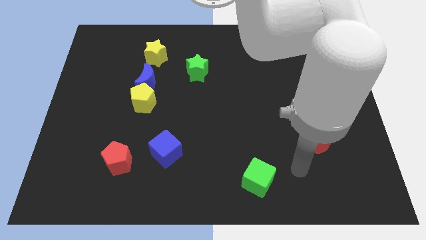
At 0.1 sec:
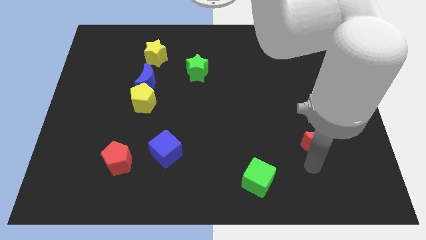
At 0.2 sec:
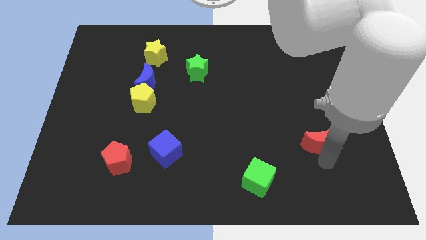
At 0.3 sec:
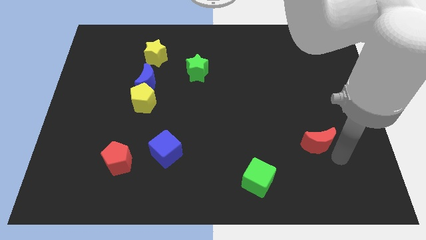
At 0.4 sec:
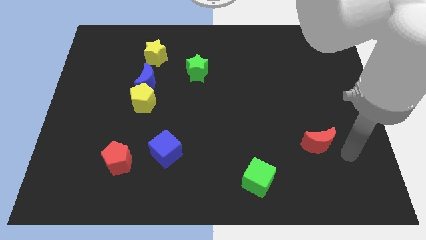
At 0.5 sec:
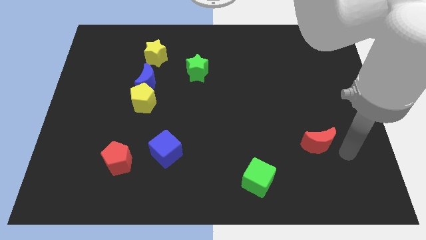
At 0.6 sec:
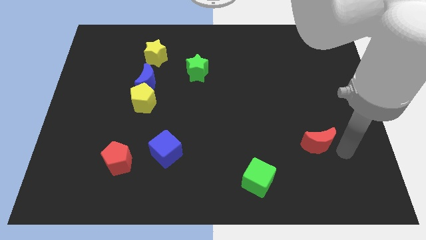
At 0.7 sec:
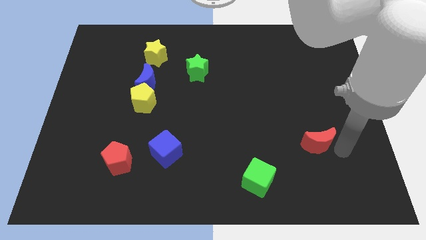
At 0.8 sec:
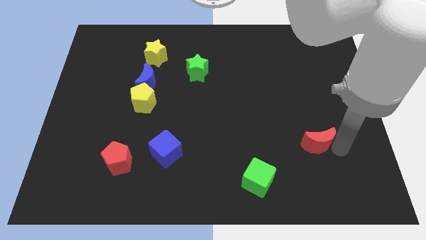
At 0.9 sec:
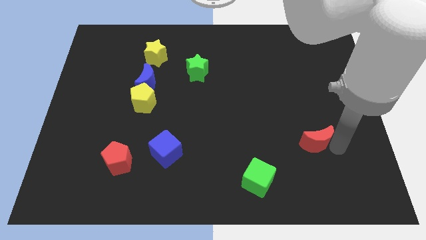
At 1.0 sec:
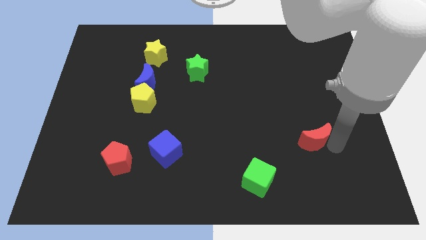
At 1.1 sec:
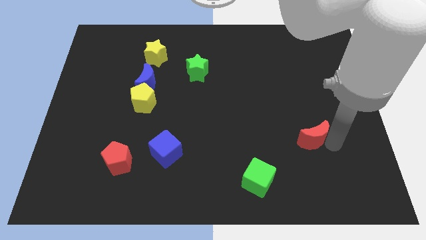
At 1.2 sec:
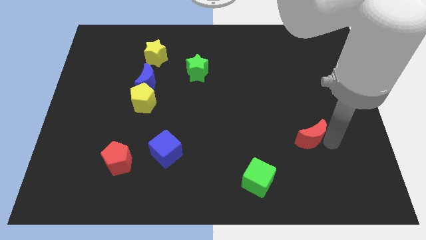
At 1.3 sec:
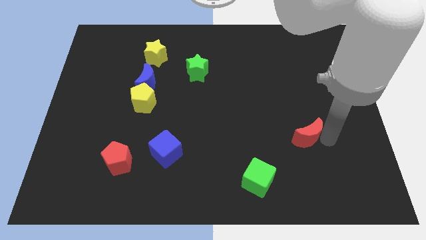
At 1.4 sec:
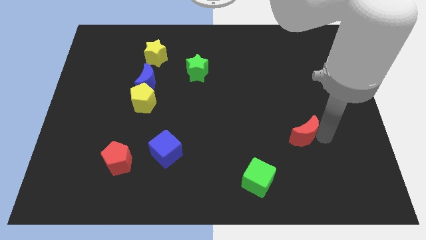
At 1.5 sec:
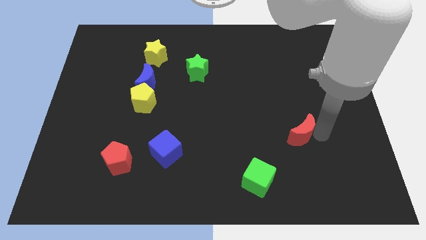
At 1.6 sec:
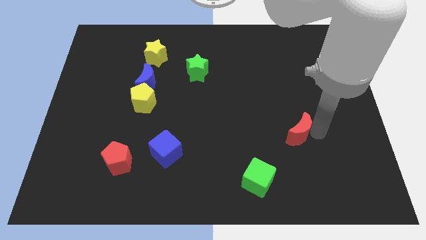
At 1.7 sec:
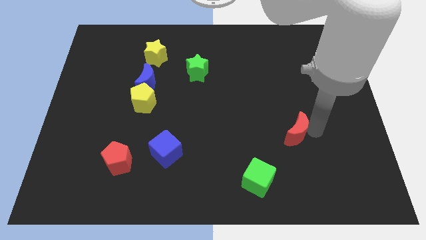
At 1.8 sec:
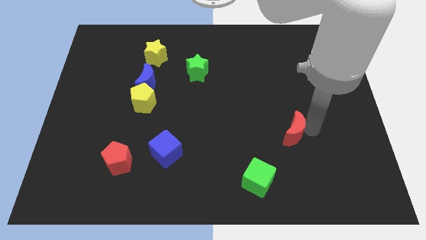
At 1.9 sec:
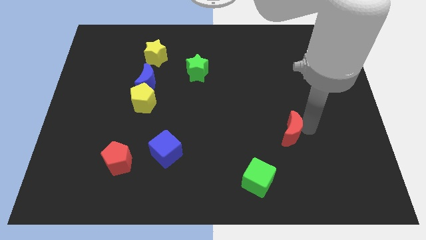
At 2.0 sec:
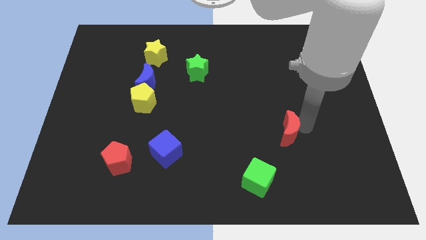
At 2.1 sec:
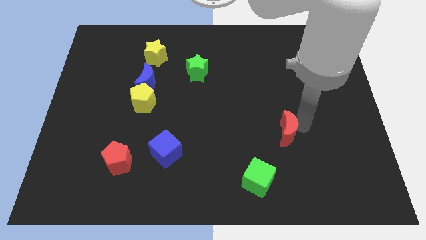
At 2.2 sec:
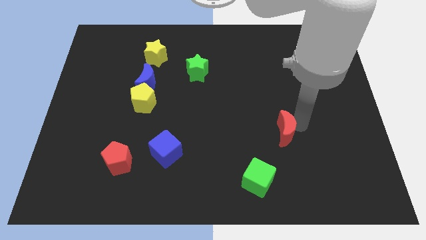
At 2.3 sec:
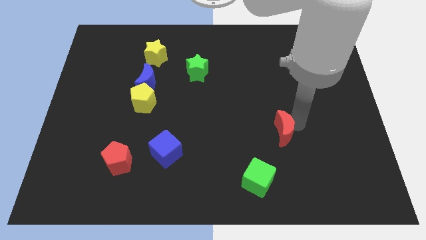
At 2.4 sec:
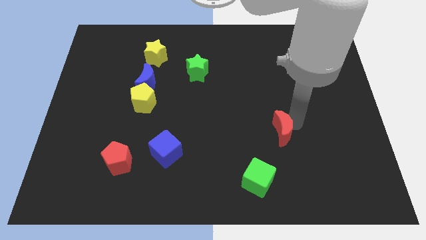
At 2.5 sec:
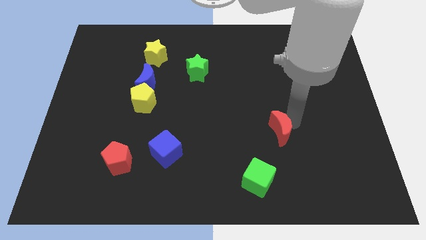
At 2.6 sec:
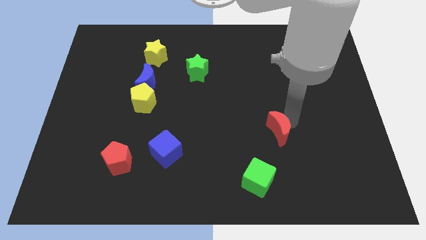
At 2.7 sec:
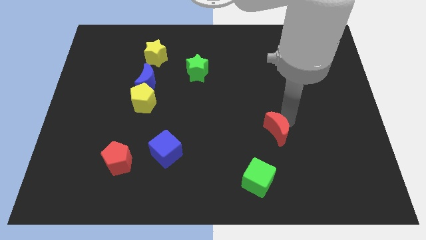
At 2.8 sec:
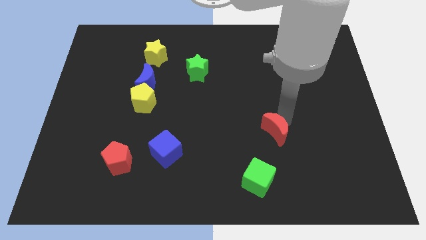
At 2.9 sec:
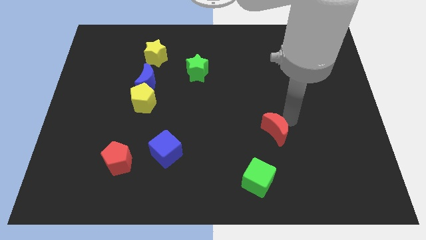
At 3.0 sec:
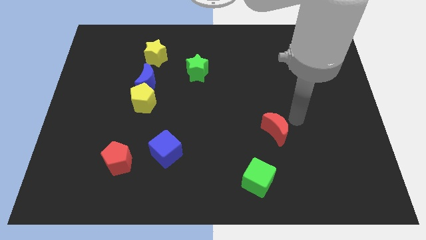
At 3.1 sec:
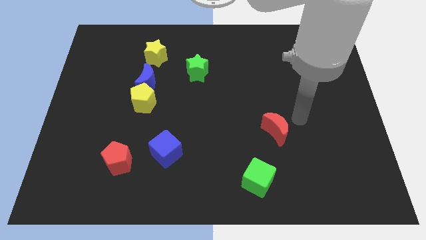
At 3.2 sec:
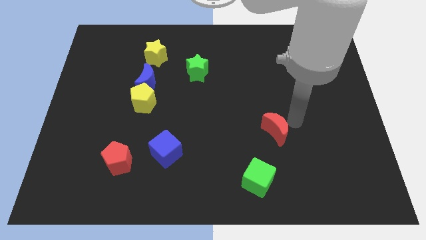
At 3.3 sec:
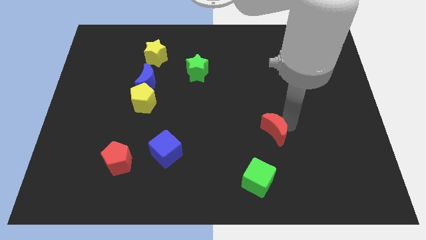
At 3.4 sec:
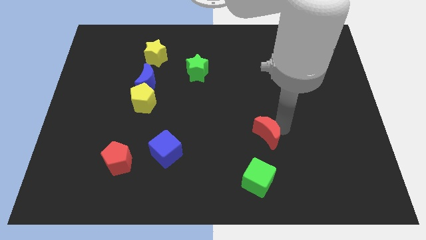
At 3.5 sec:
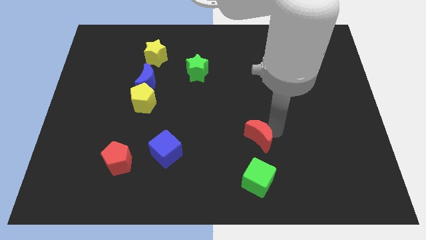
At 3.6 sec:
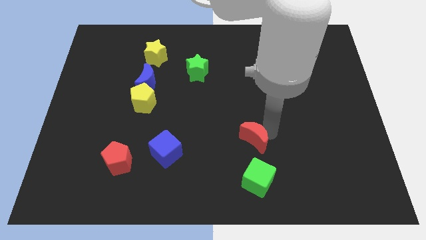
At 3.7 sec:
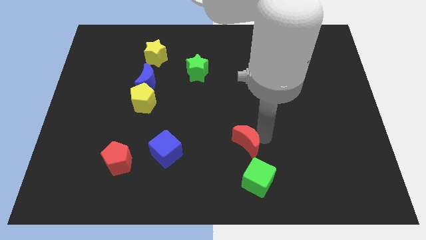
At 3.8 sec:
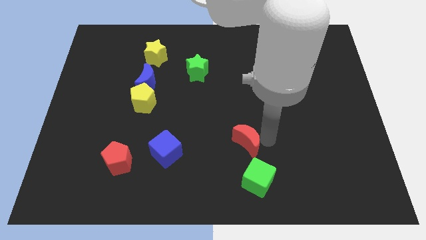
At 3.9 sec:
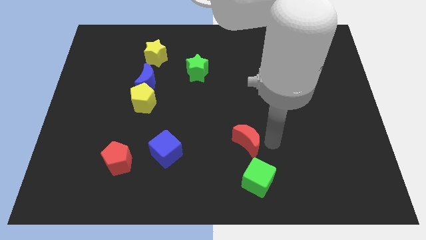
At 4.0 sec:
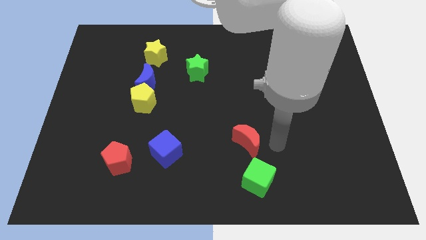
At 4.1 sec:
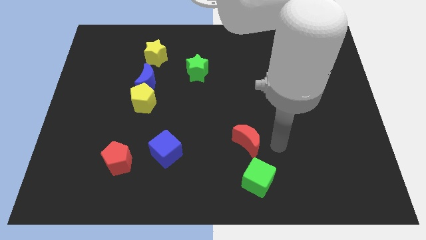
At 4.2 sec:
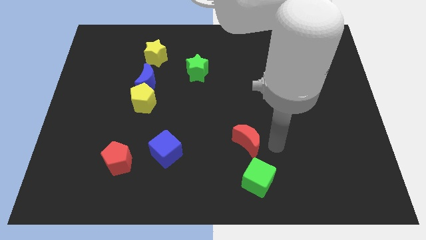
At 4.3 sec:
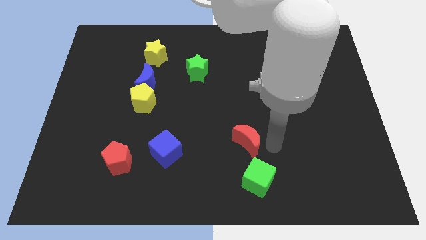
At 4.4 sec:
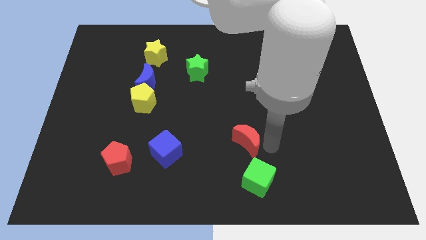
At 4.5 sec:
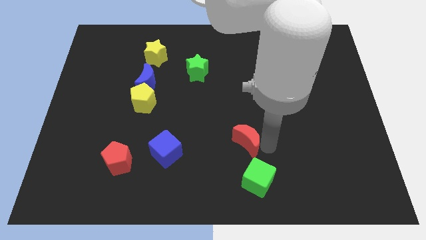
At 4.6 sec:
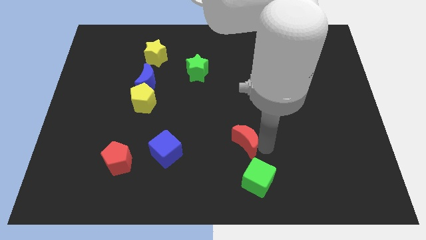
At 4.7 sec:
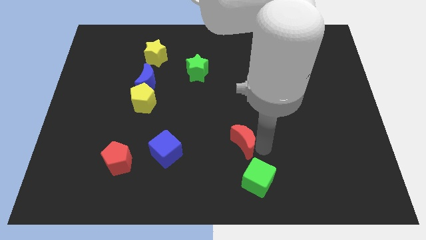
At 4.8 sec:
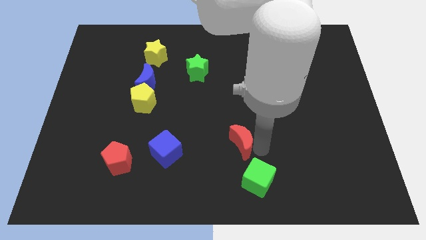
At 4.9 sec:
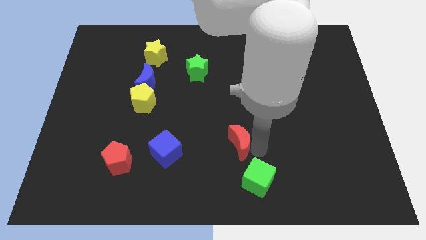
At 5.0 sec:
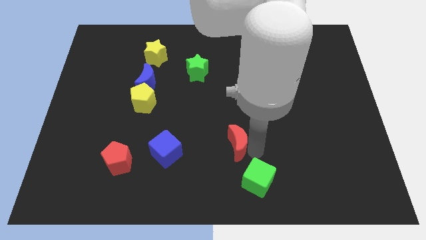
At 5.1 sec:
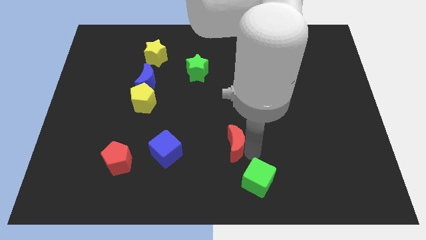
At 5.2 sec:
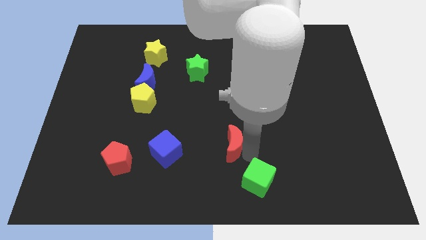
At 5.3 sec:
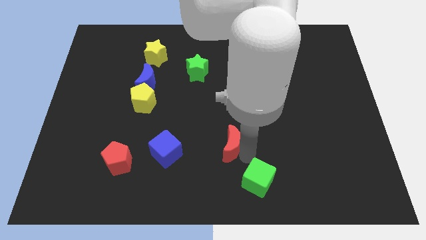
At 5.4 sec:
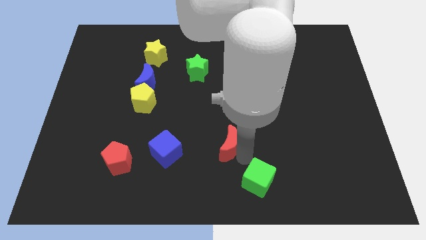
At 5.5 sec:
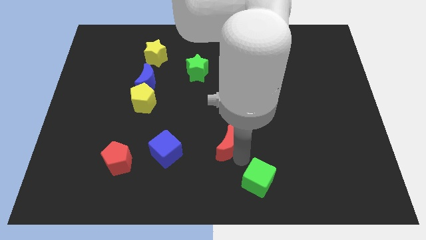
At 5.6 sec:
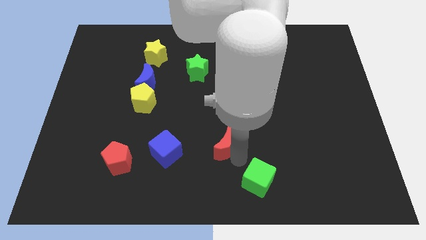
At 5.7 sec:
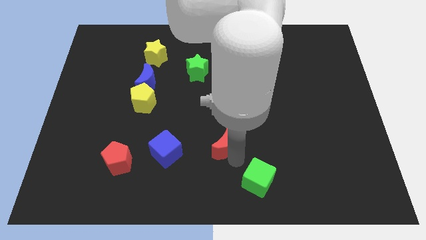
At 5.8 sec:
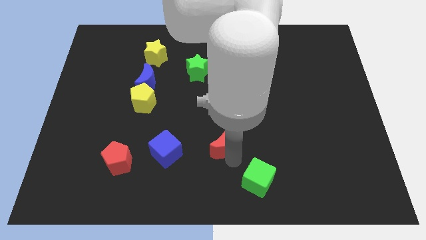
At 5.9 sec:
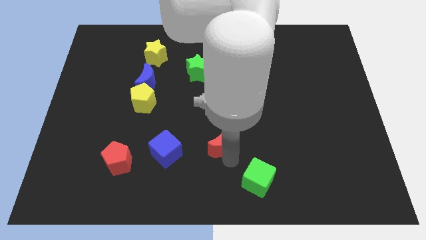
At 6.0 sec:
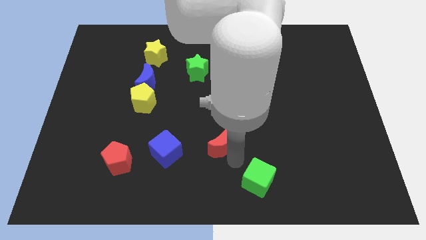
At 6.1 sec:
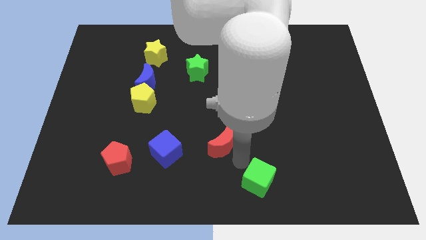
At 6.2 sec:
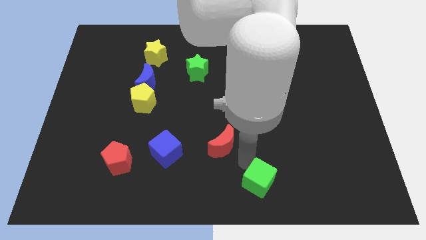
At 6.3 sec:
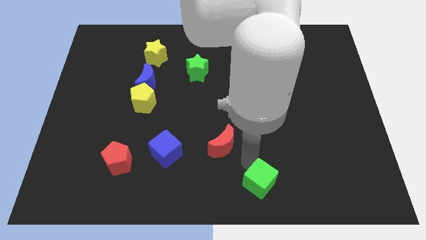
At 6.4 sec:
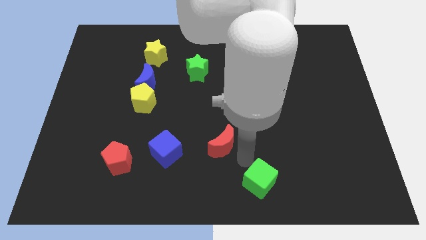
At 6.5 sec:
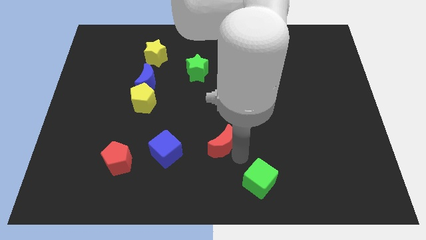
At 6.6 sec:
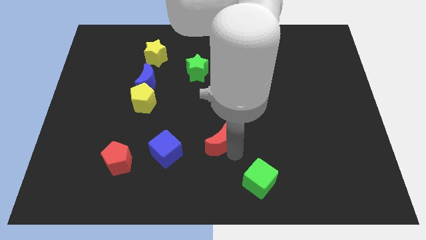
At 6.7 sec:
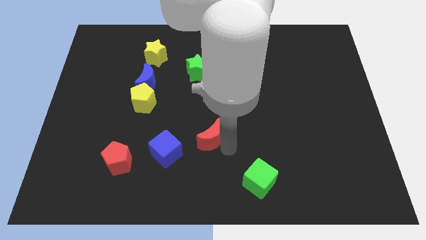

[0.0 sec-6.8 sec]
slide the red moon to the top right side of the blue cube

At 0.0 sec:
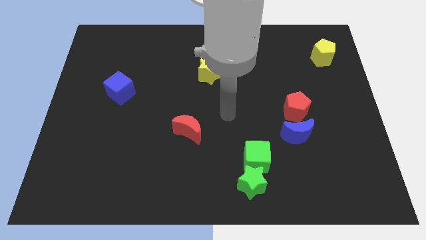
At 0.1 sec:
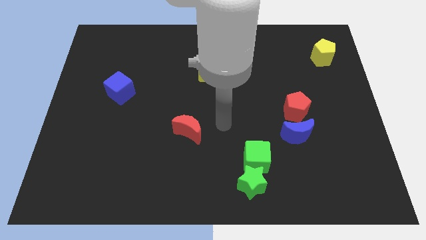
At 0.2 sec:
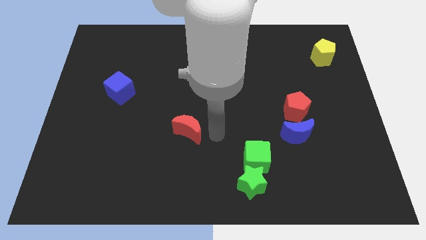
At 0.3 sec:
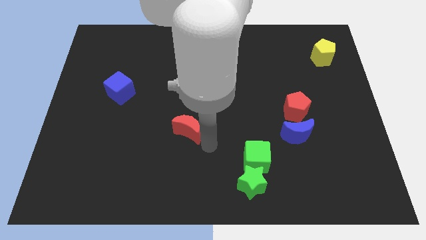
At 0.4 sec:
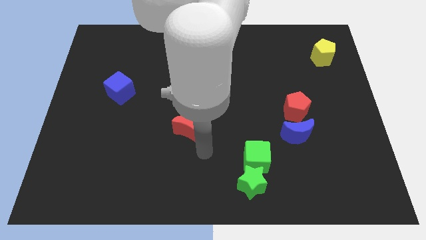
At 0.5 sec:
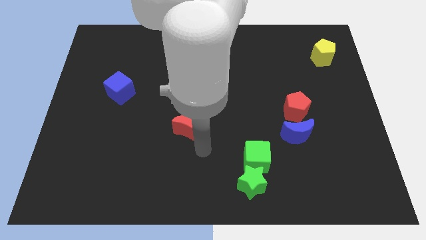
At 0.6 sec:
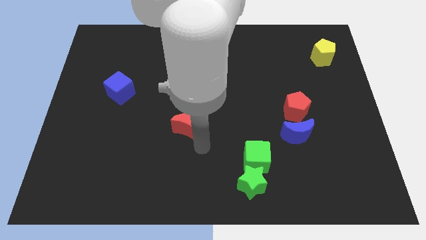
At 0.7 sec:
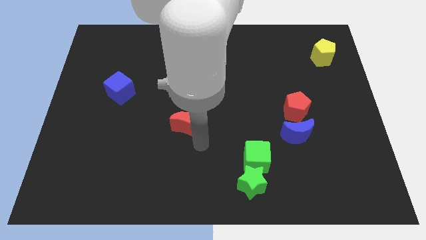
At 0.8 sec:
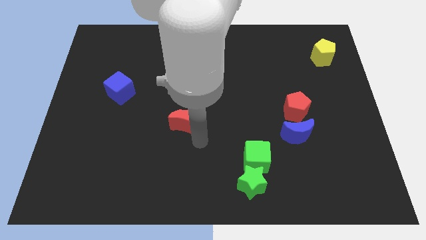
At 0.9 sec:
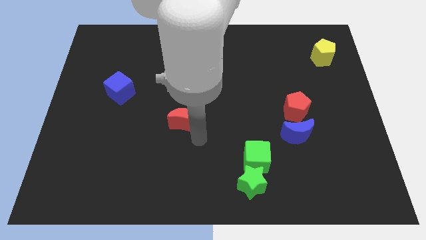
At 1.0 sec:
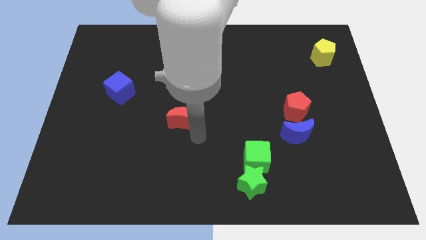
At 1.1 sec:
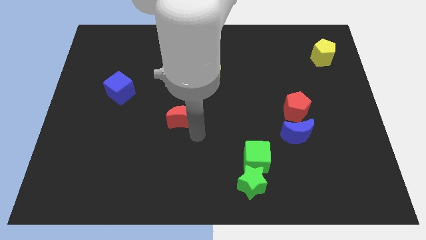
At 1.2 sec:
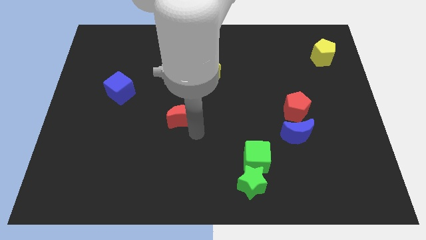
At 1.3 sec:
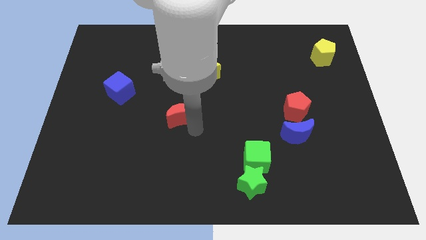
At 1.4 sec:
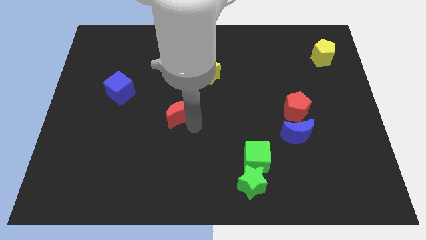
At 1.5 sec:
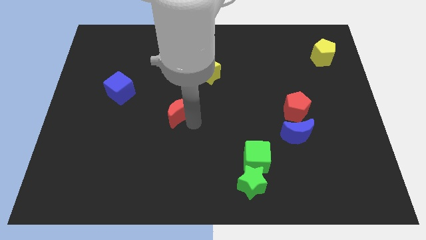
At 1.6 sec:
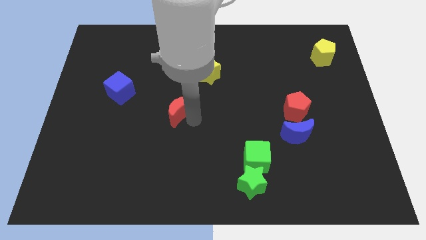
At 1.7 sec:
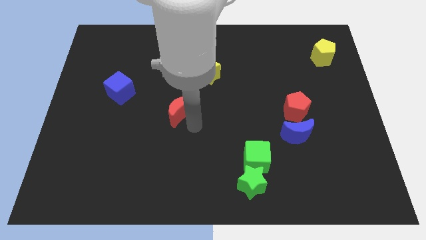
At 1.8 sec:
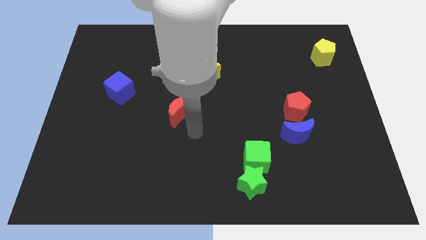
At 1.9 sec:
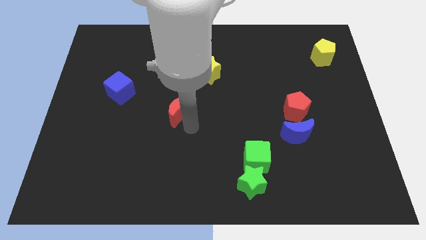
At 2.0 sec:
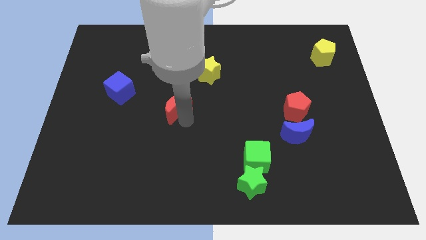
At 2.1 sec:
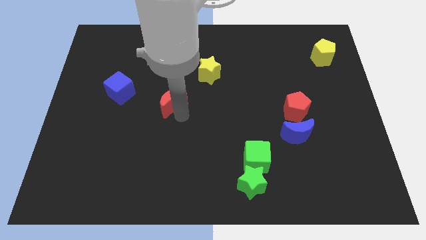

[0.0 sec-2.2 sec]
put the red moon to the right of the blue cube
